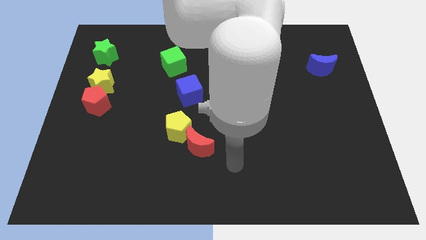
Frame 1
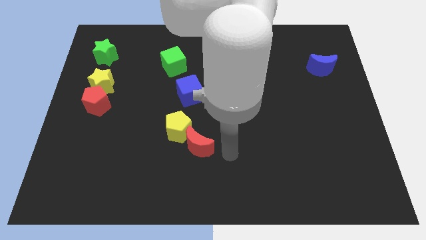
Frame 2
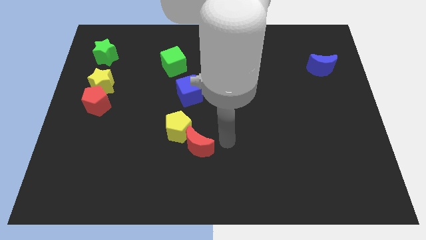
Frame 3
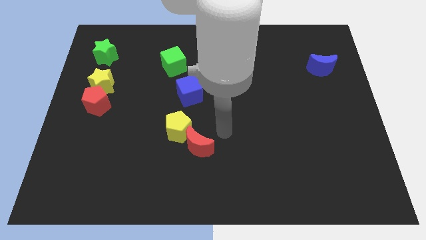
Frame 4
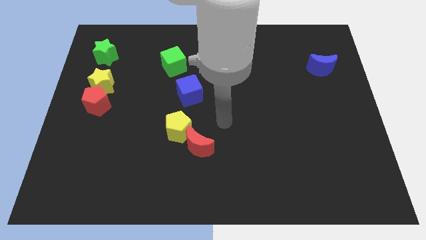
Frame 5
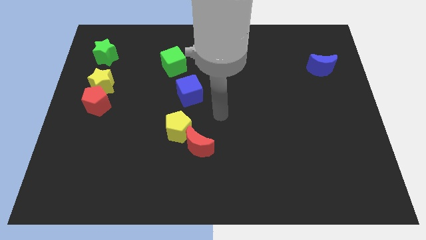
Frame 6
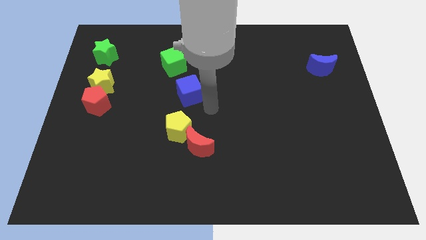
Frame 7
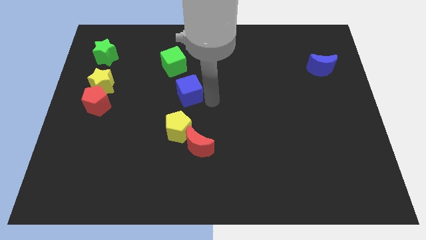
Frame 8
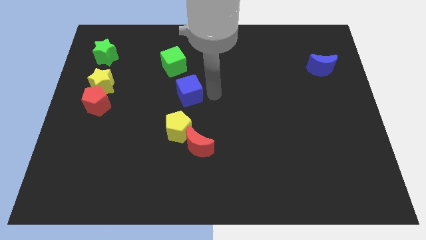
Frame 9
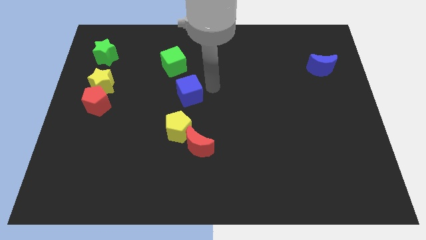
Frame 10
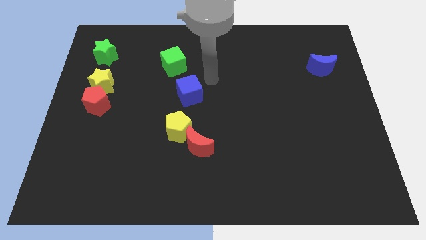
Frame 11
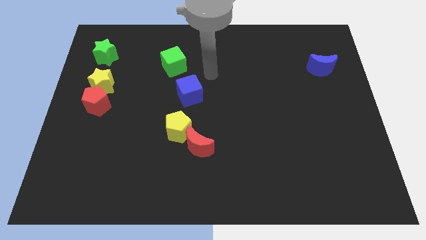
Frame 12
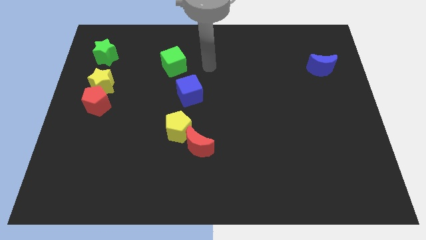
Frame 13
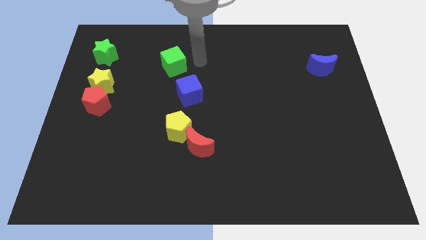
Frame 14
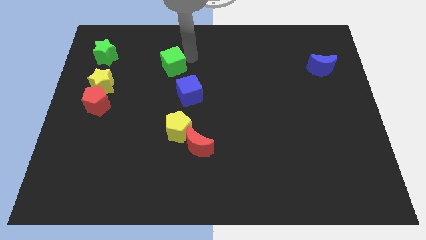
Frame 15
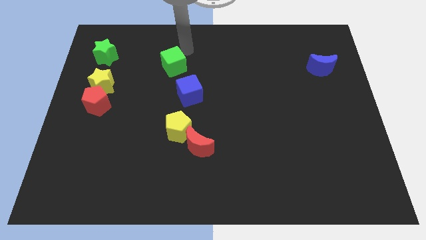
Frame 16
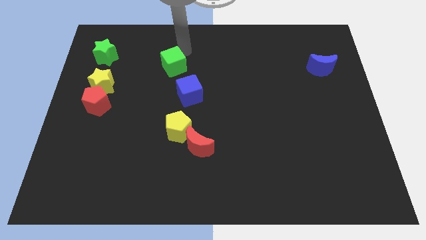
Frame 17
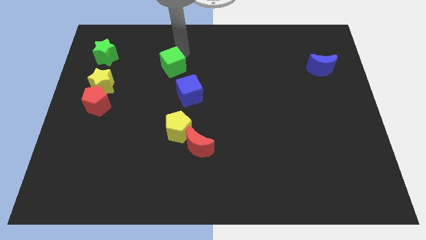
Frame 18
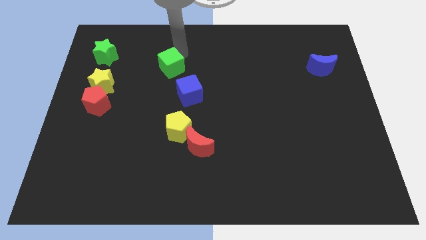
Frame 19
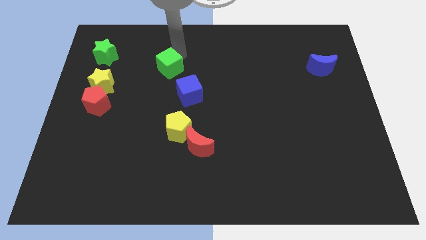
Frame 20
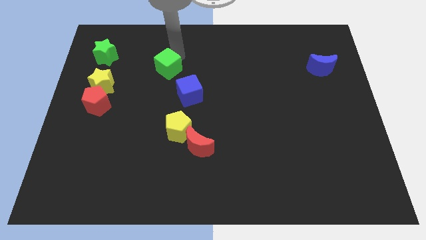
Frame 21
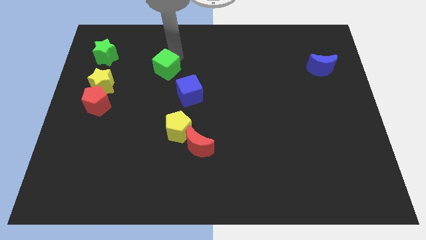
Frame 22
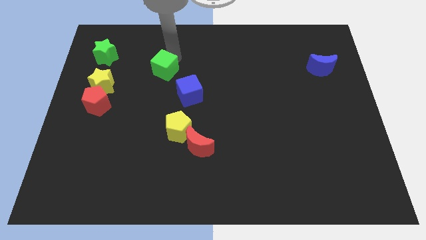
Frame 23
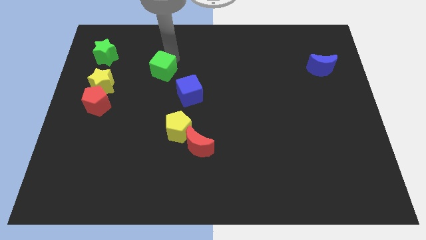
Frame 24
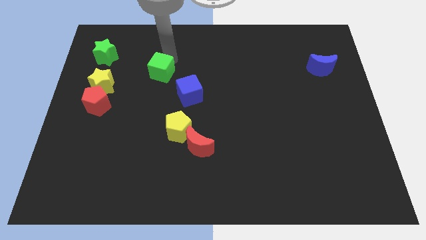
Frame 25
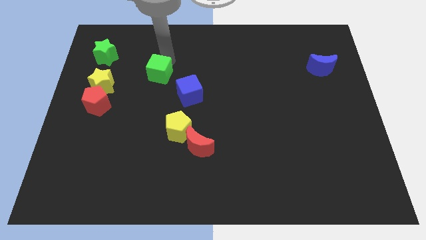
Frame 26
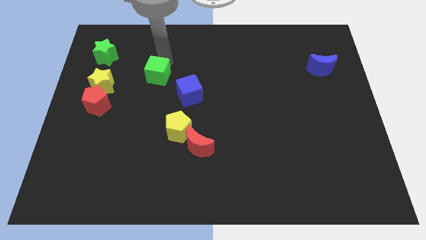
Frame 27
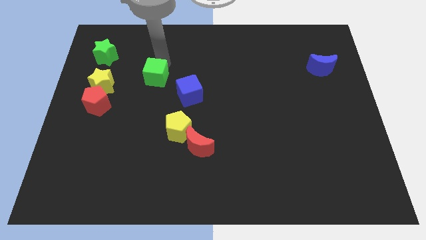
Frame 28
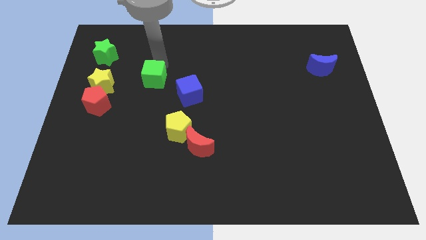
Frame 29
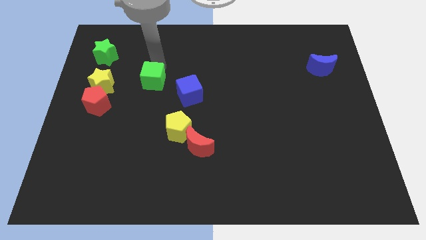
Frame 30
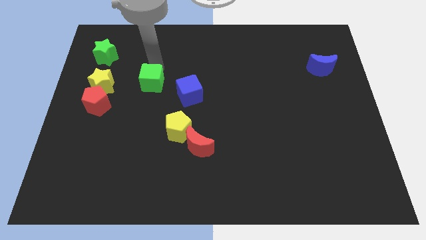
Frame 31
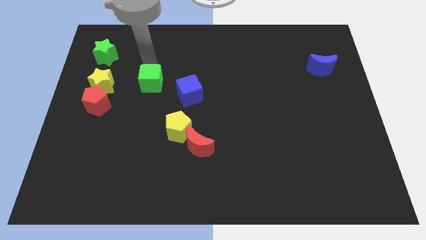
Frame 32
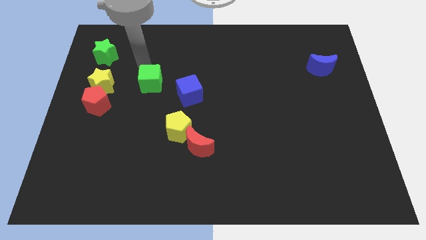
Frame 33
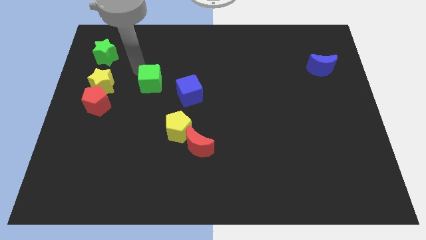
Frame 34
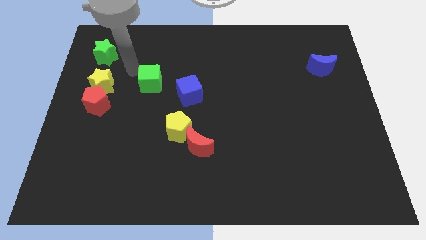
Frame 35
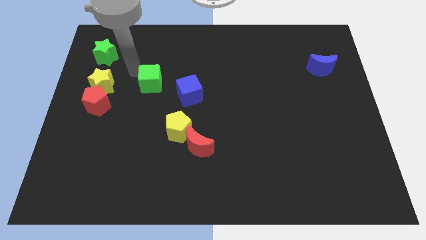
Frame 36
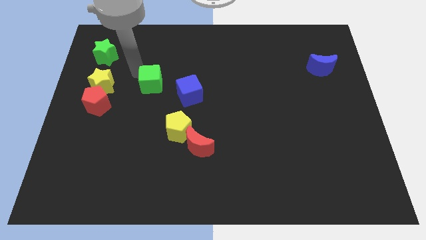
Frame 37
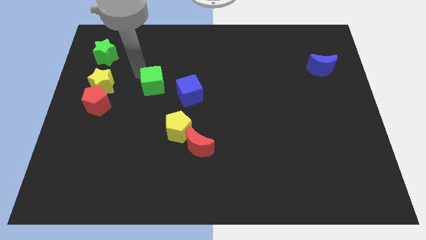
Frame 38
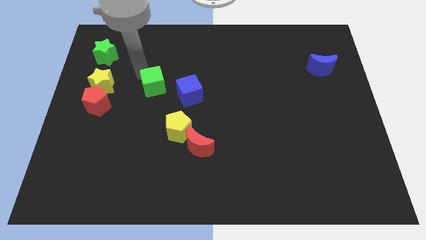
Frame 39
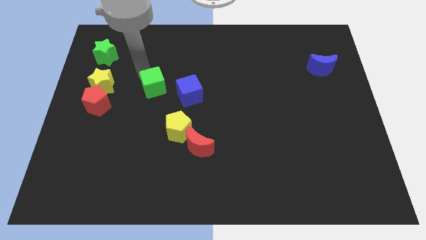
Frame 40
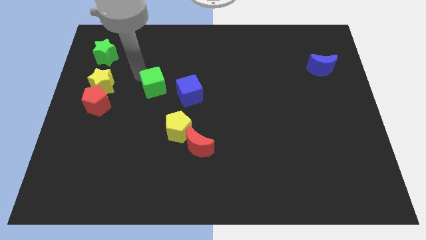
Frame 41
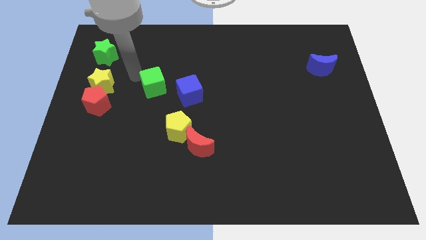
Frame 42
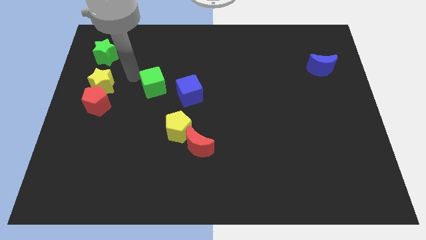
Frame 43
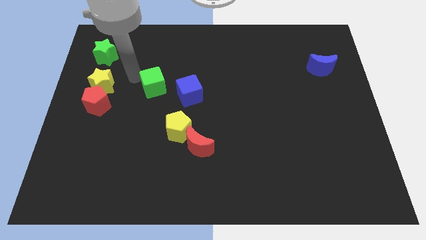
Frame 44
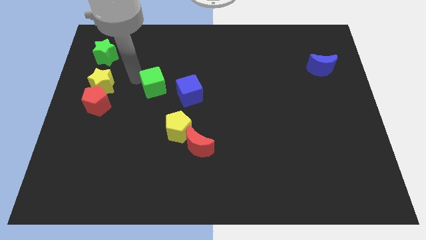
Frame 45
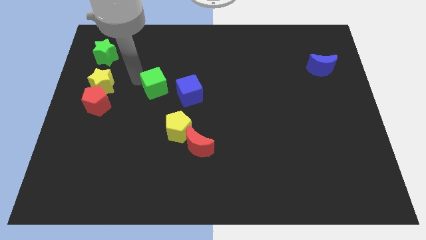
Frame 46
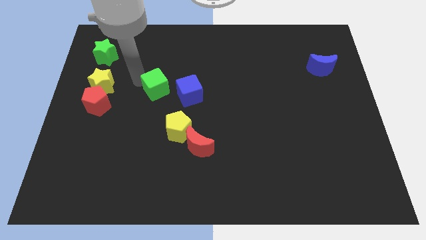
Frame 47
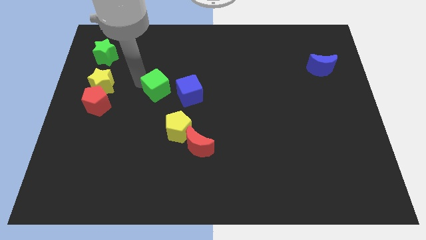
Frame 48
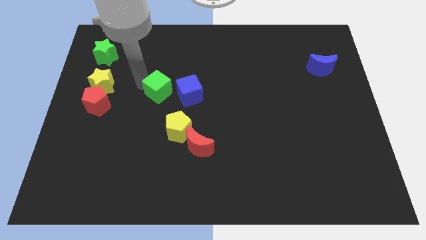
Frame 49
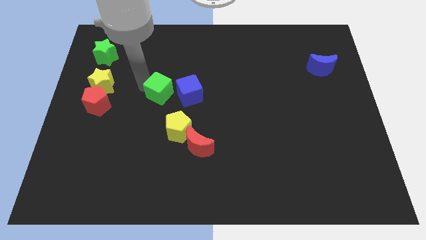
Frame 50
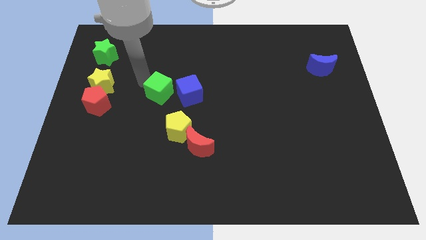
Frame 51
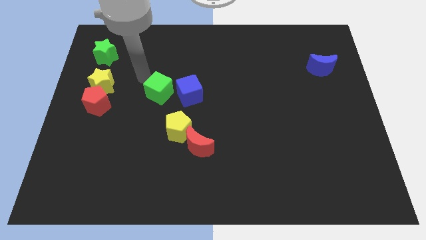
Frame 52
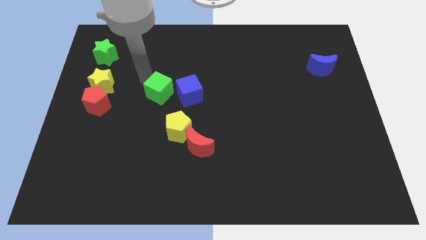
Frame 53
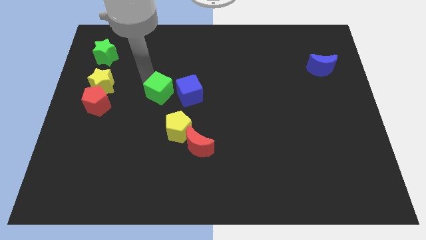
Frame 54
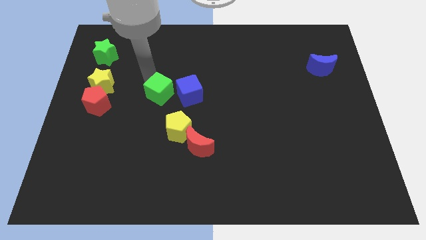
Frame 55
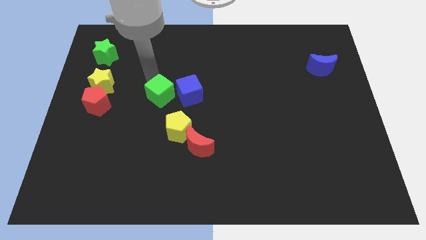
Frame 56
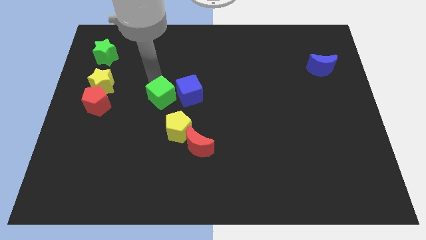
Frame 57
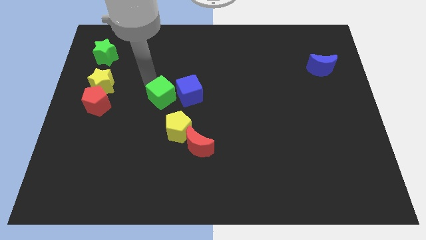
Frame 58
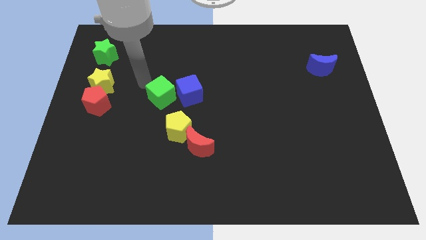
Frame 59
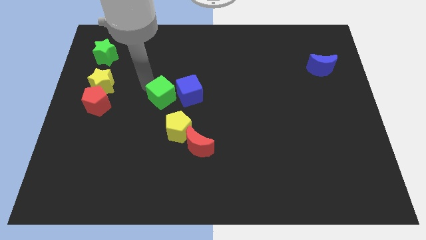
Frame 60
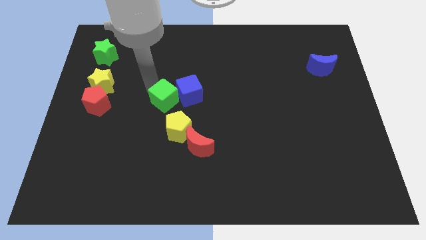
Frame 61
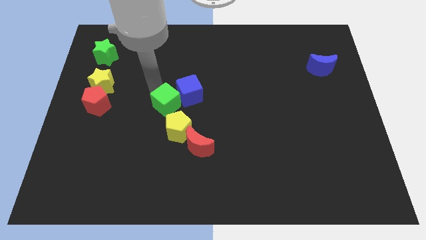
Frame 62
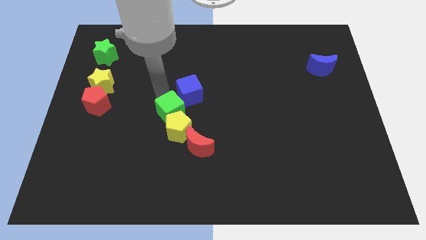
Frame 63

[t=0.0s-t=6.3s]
push the green cube towards the yellow pentagon
